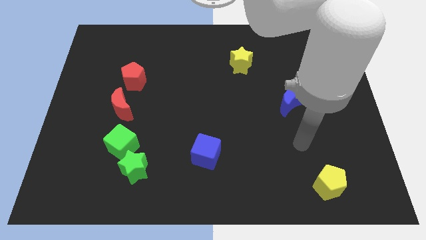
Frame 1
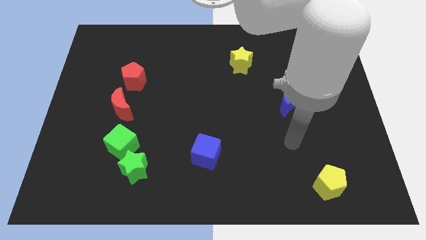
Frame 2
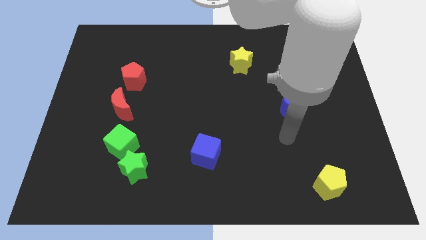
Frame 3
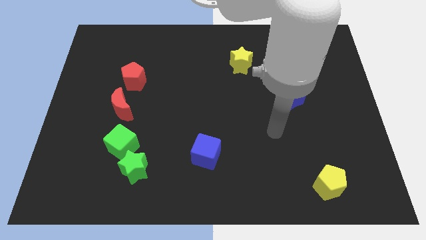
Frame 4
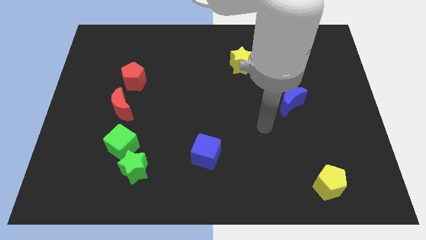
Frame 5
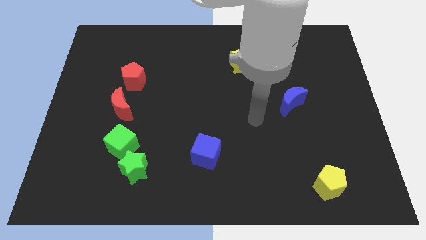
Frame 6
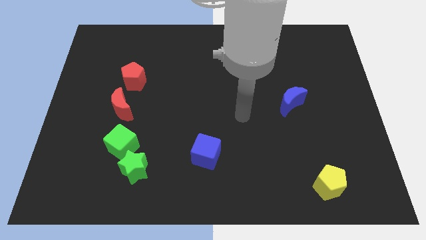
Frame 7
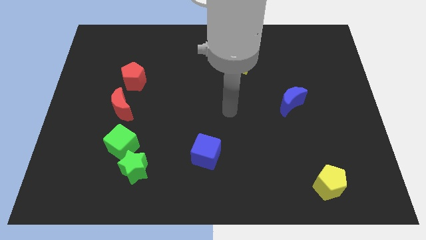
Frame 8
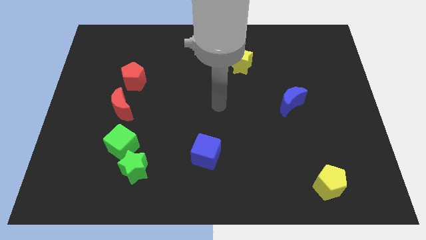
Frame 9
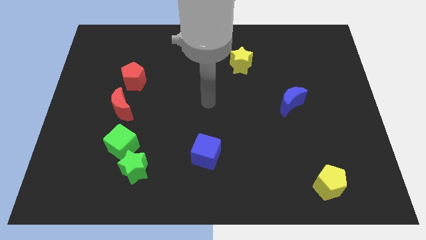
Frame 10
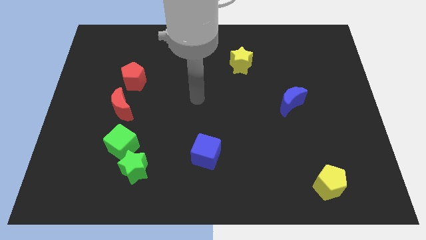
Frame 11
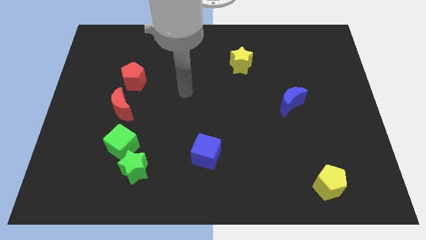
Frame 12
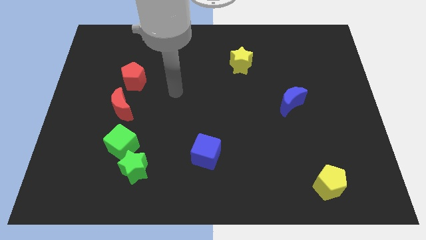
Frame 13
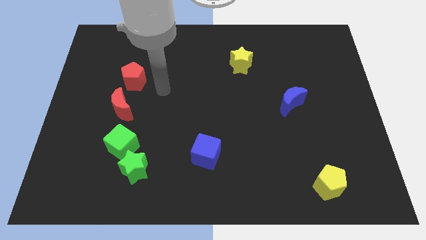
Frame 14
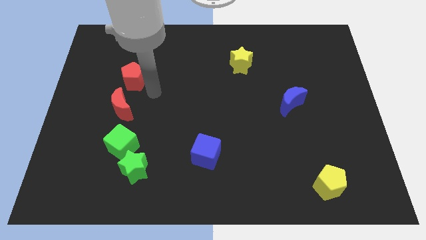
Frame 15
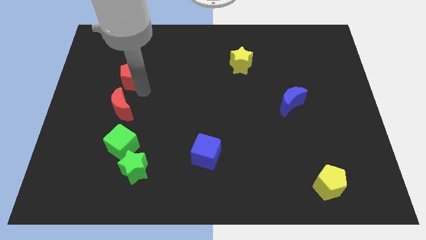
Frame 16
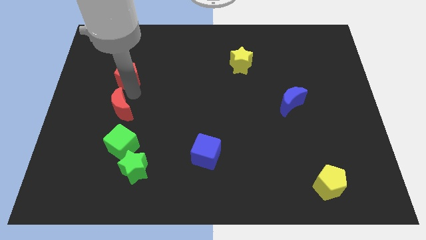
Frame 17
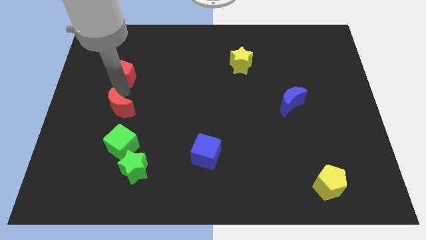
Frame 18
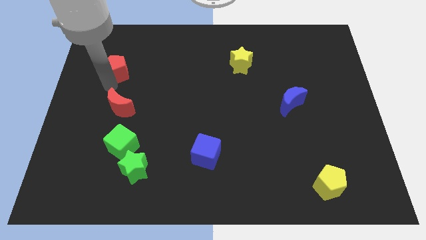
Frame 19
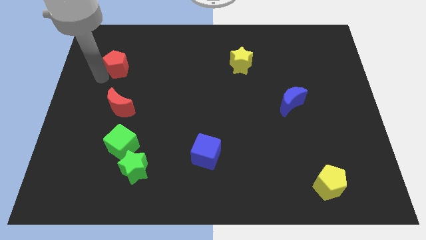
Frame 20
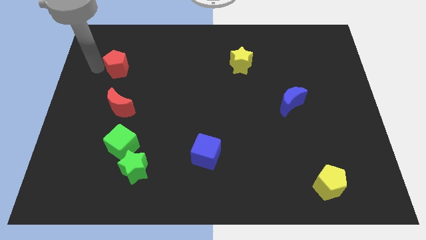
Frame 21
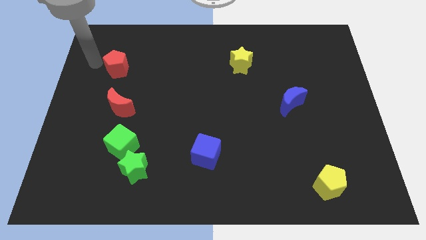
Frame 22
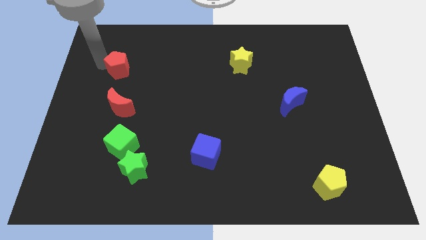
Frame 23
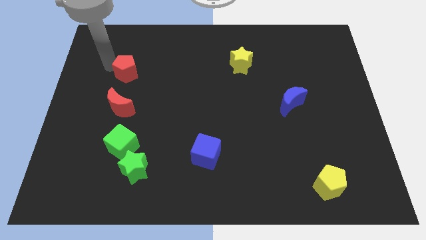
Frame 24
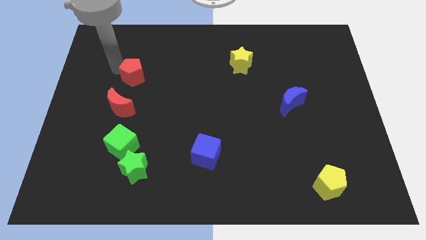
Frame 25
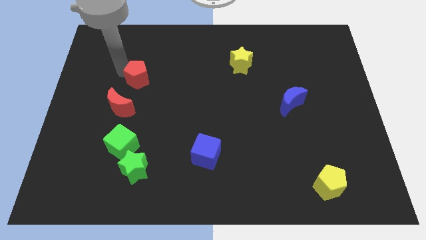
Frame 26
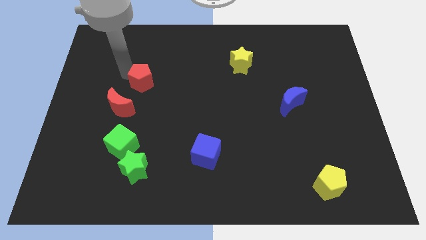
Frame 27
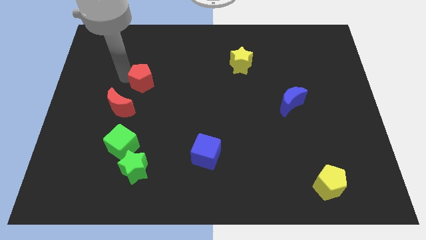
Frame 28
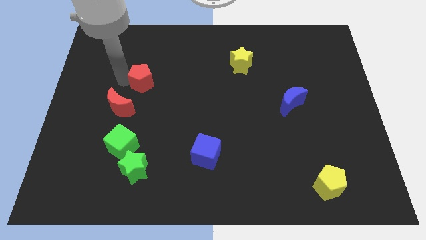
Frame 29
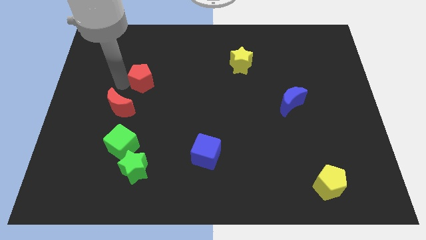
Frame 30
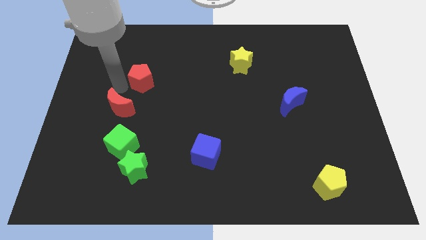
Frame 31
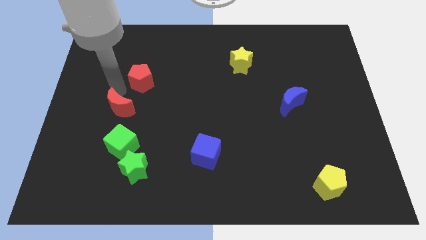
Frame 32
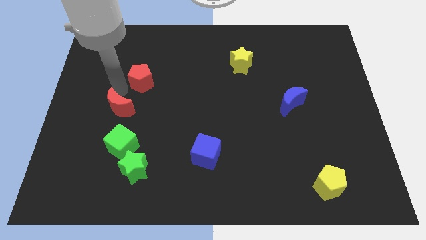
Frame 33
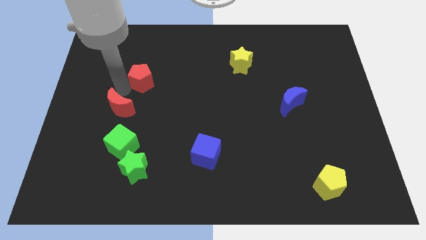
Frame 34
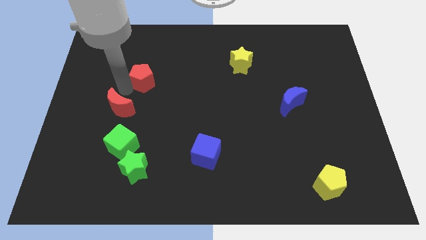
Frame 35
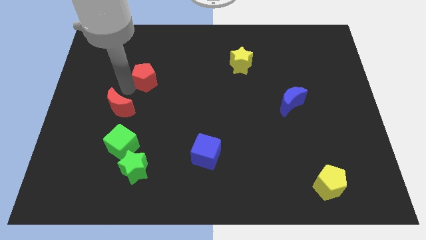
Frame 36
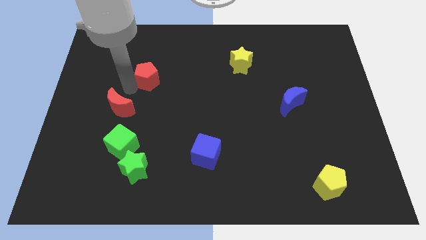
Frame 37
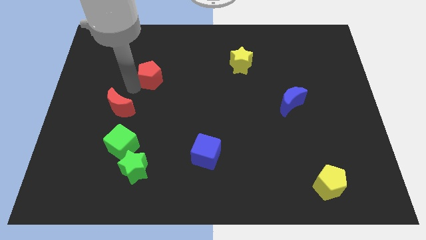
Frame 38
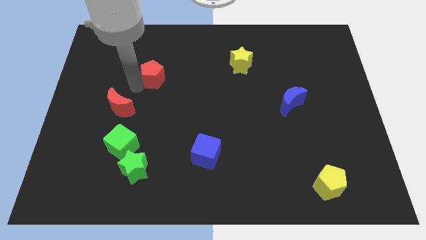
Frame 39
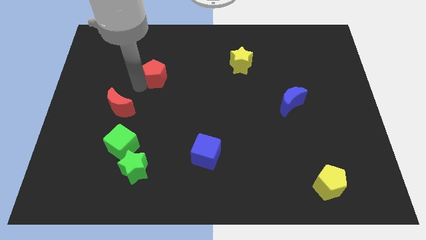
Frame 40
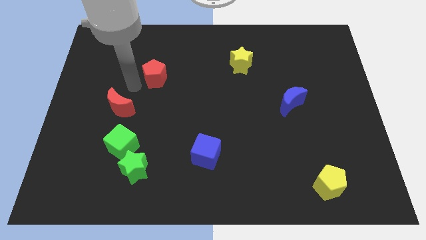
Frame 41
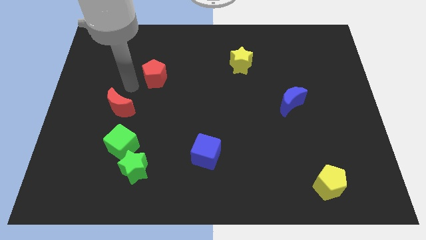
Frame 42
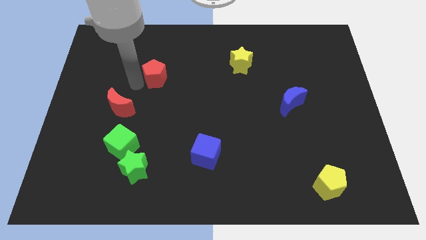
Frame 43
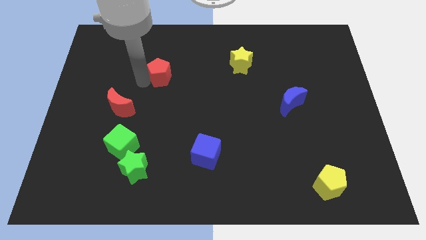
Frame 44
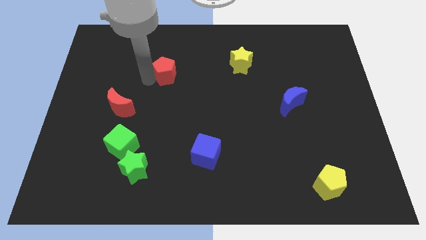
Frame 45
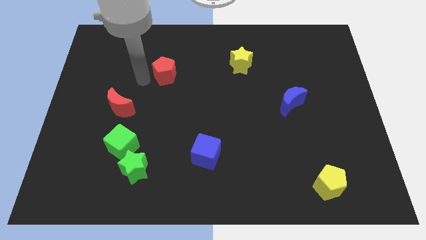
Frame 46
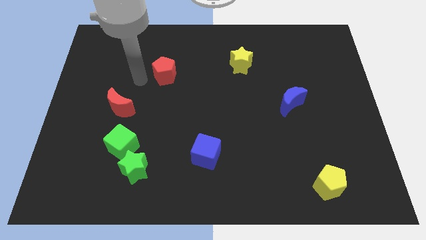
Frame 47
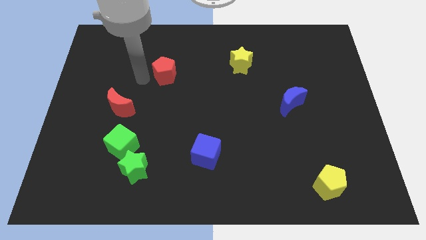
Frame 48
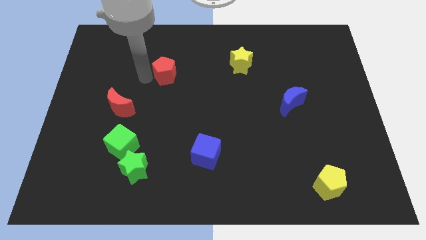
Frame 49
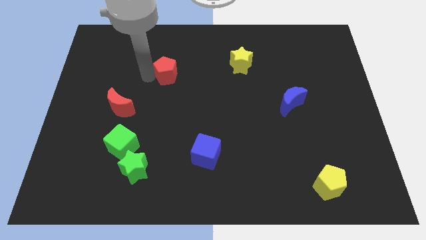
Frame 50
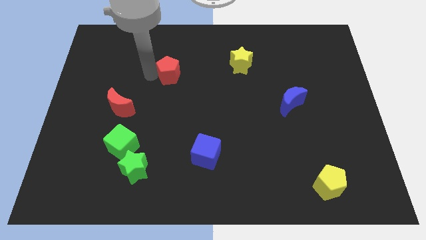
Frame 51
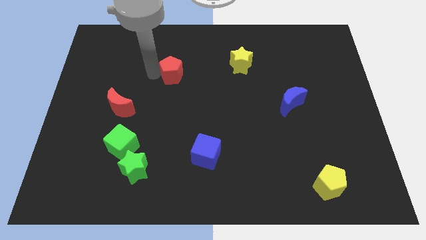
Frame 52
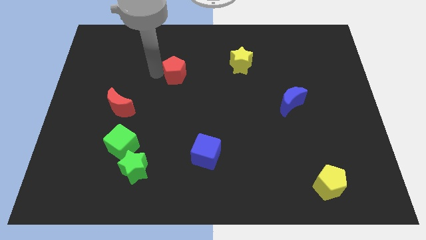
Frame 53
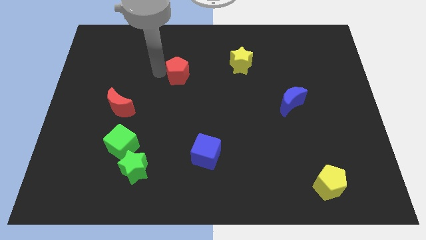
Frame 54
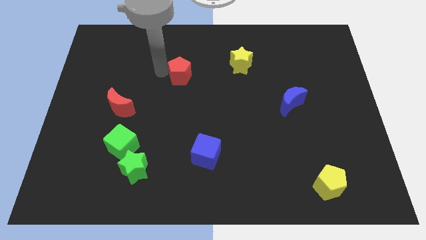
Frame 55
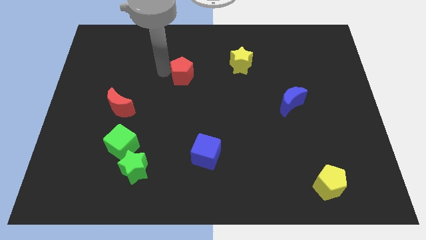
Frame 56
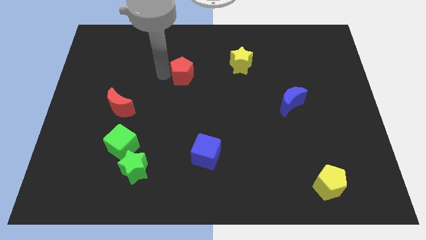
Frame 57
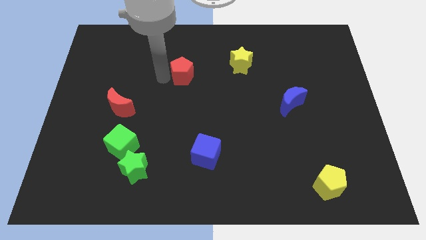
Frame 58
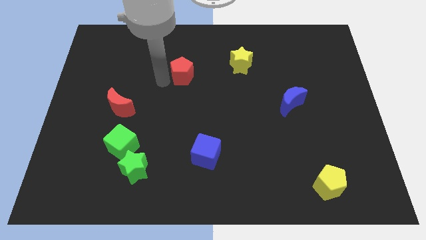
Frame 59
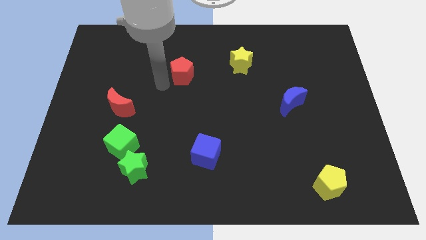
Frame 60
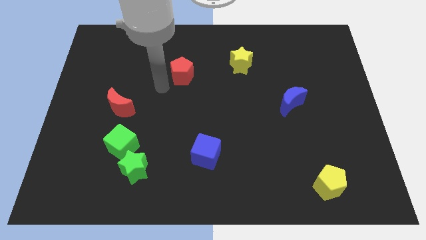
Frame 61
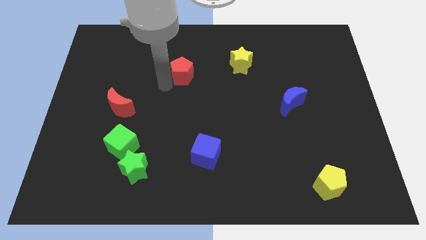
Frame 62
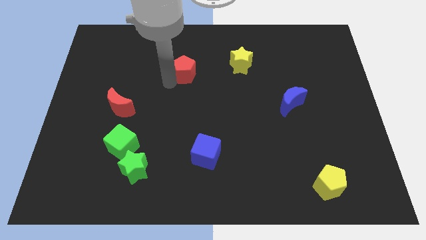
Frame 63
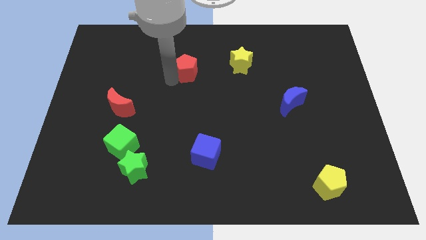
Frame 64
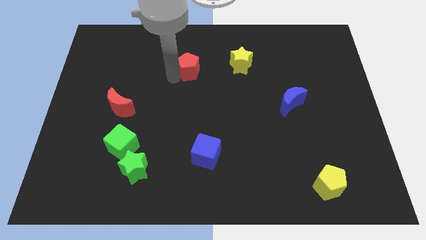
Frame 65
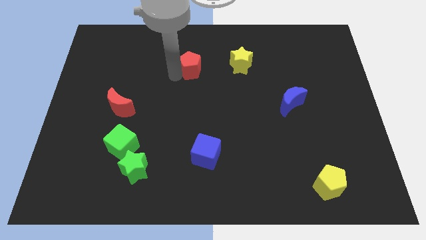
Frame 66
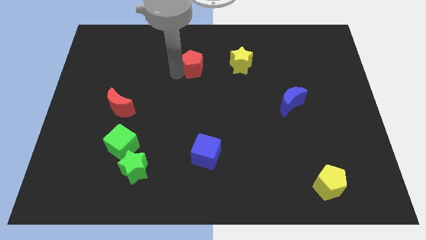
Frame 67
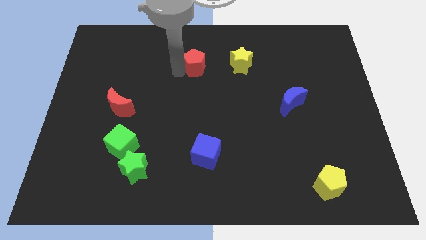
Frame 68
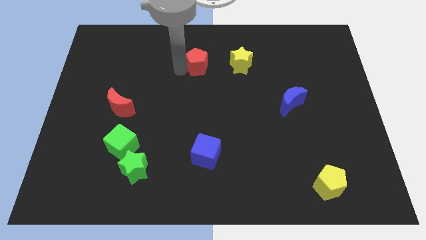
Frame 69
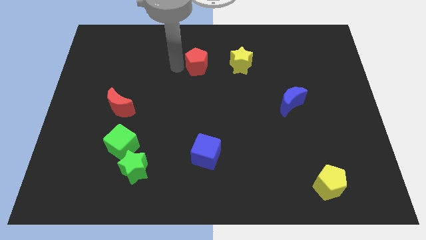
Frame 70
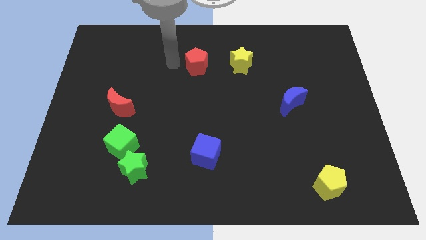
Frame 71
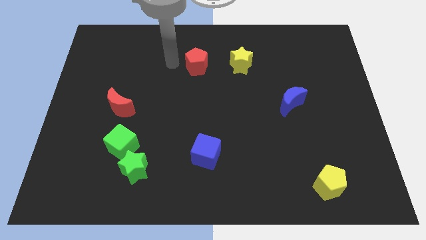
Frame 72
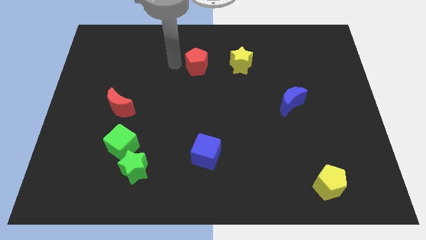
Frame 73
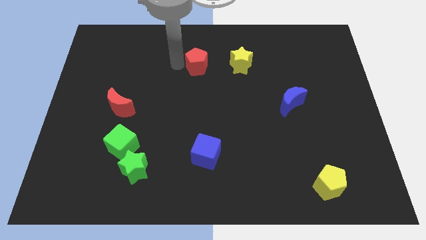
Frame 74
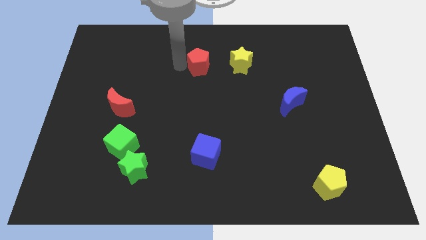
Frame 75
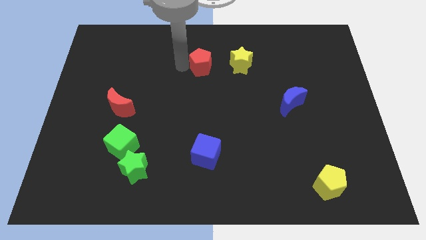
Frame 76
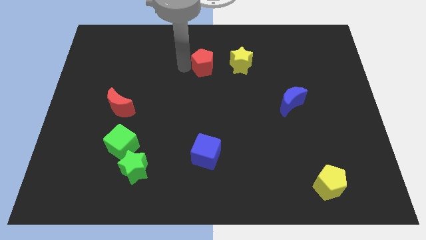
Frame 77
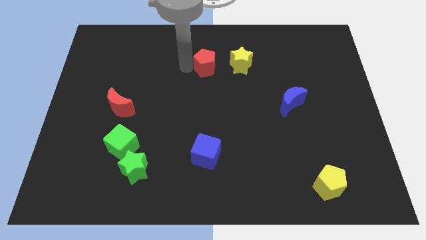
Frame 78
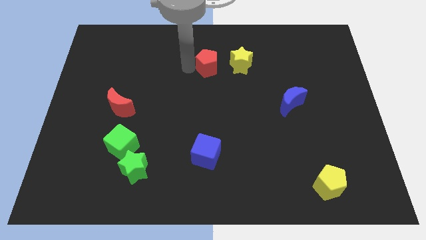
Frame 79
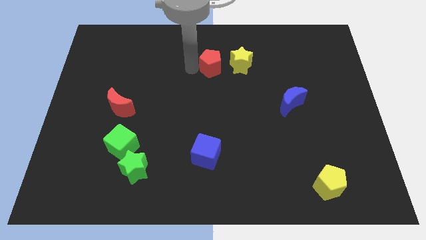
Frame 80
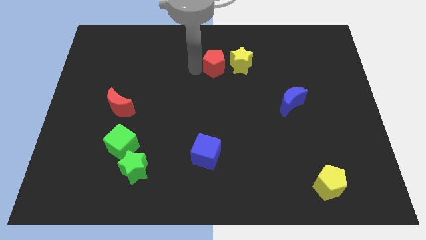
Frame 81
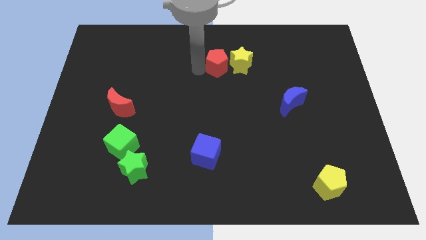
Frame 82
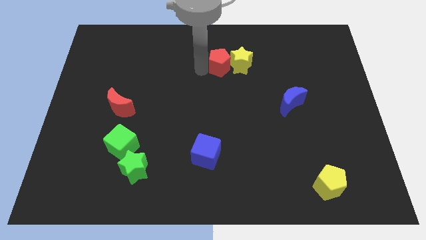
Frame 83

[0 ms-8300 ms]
slide the red pentagon next to the yellow star
